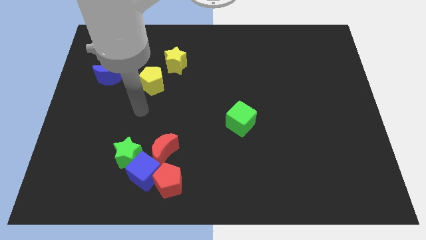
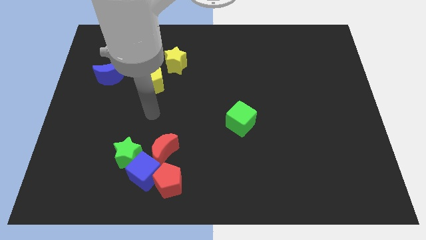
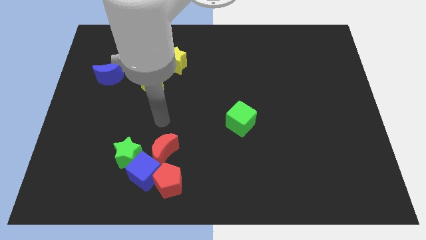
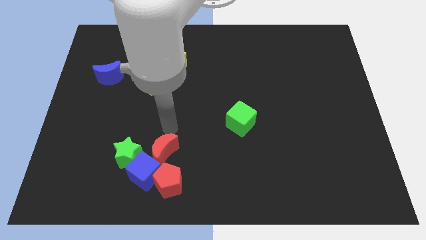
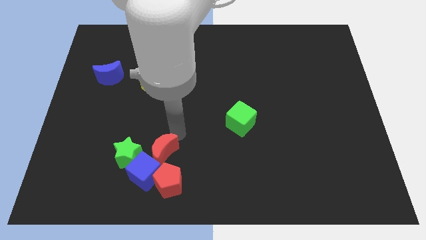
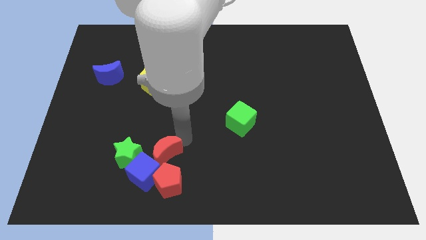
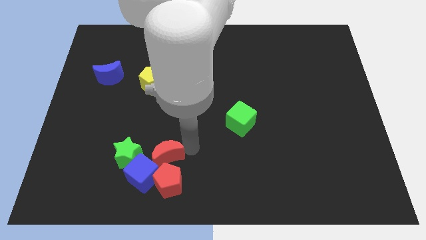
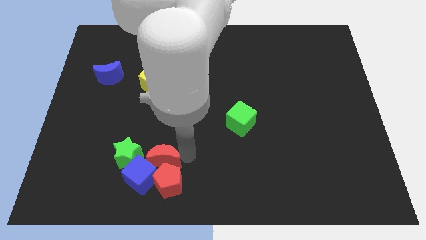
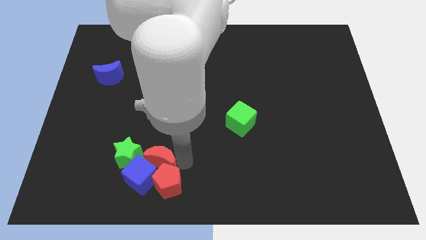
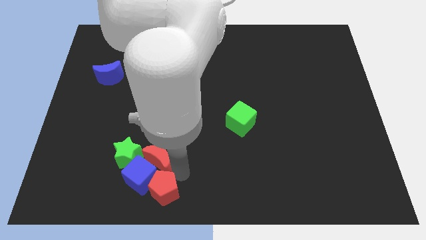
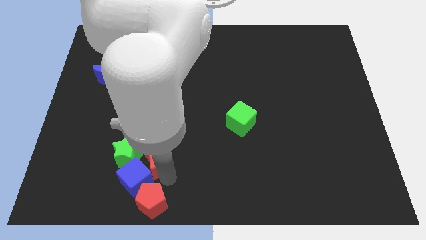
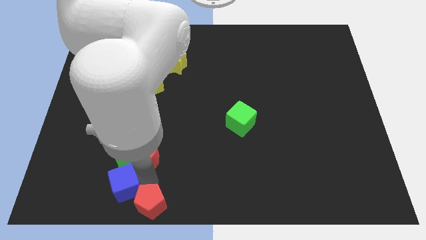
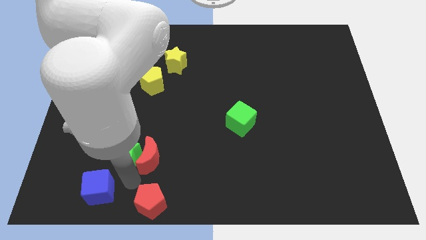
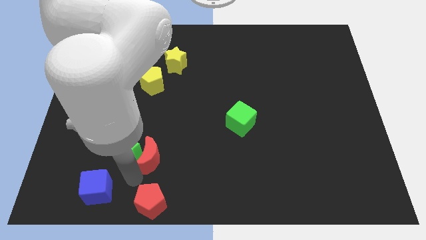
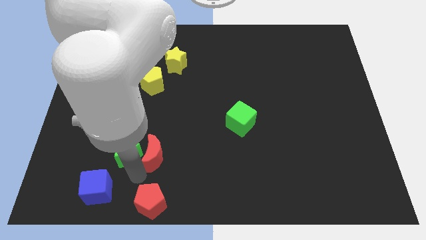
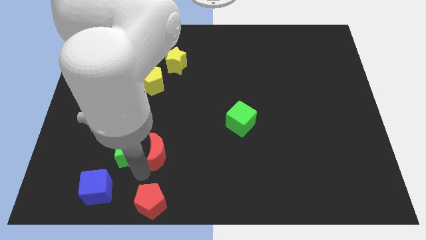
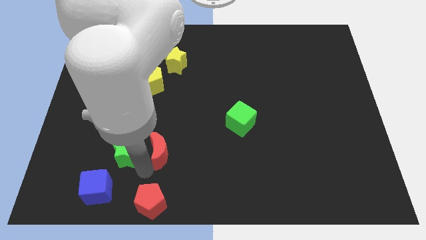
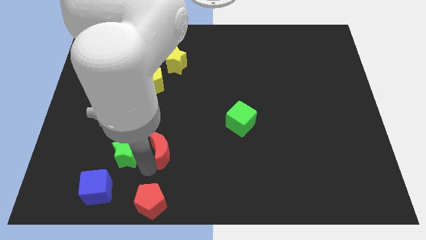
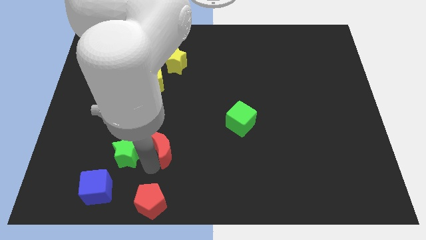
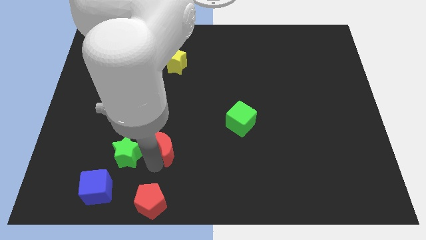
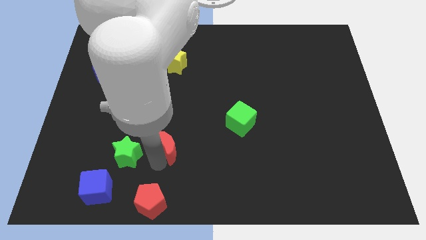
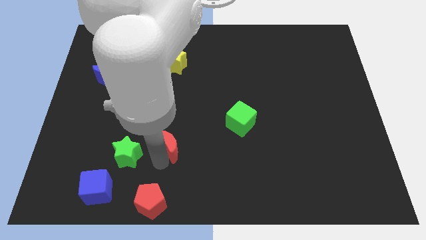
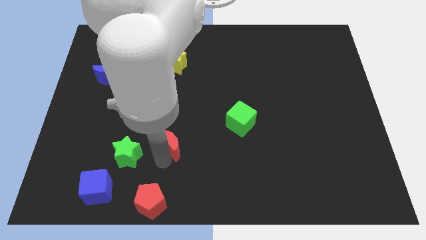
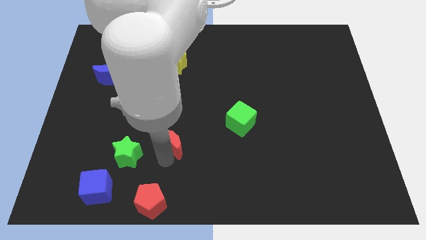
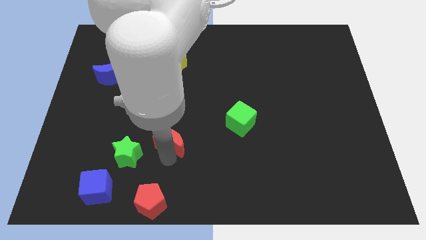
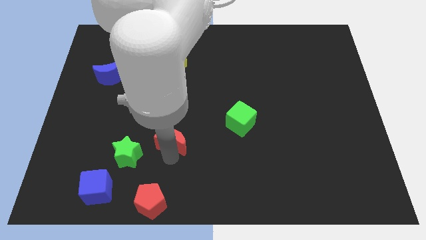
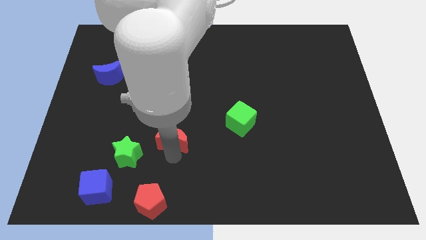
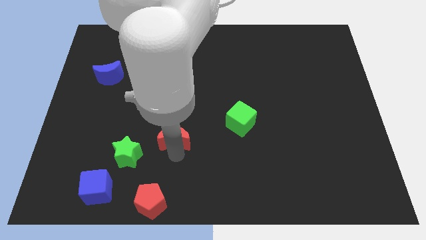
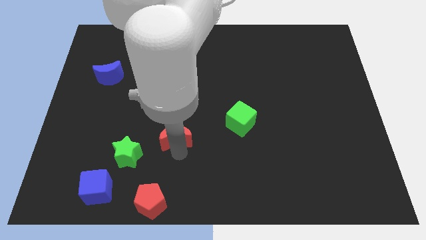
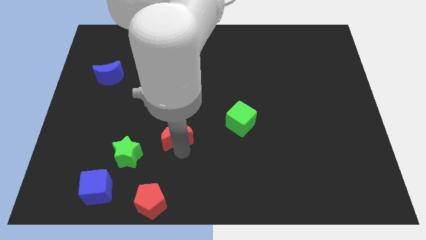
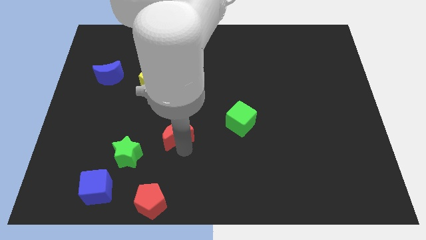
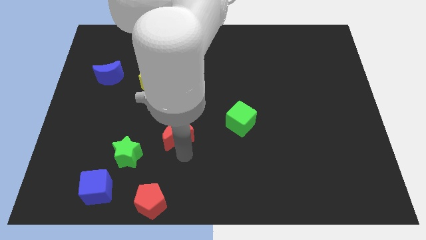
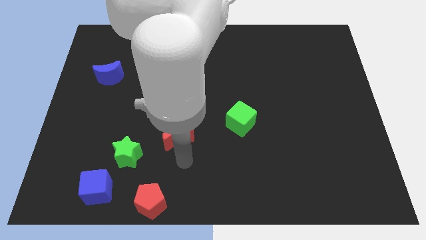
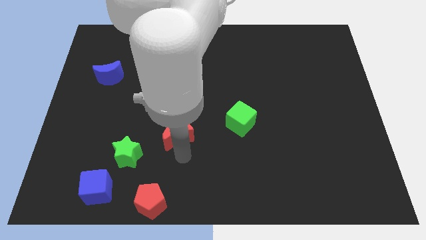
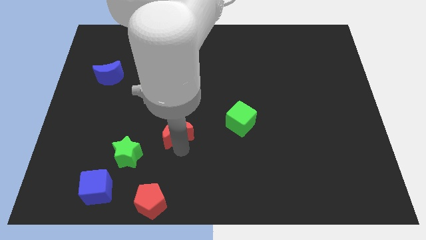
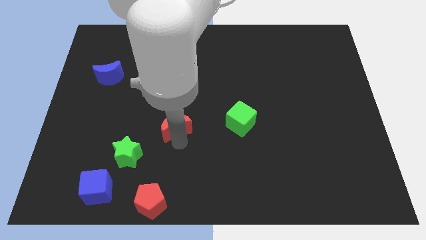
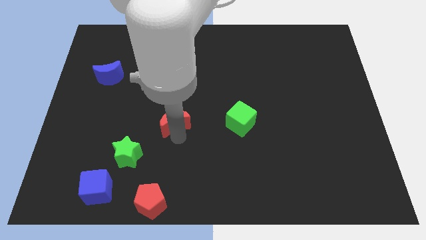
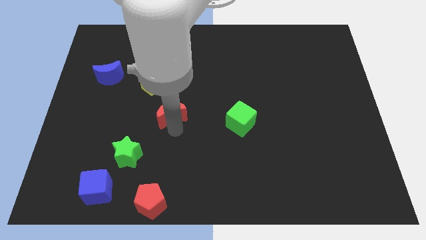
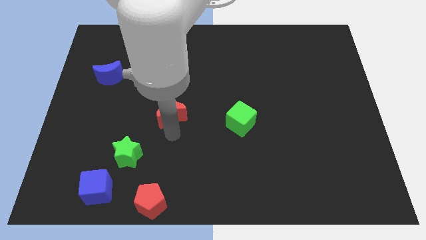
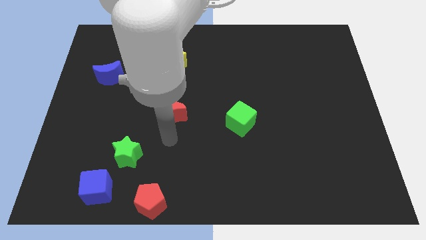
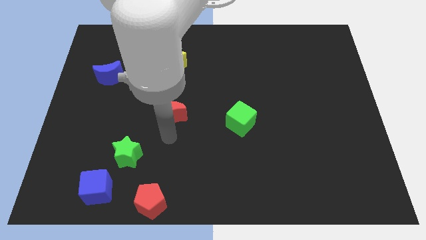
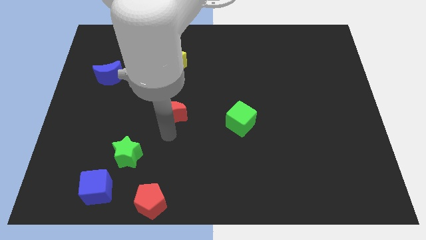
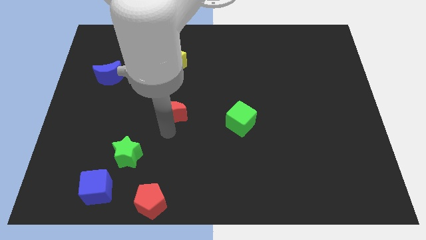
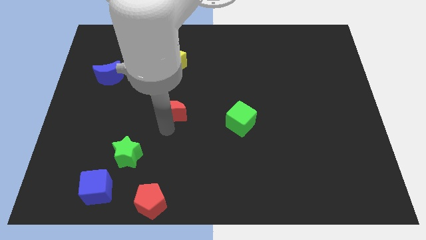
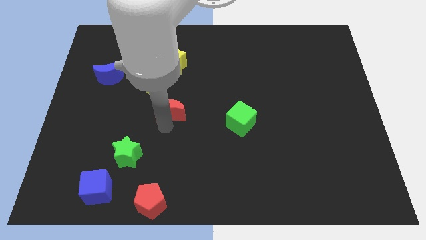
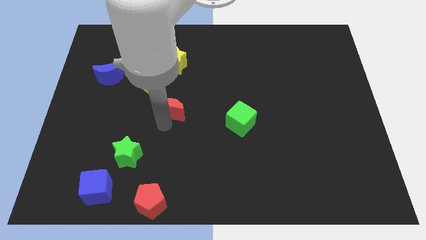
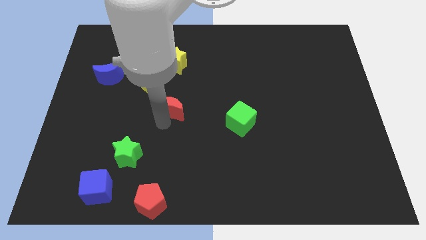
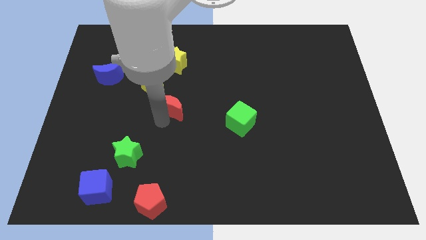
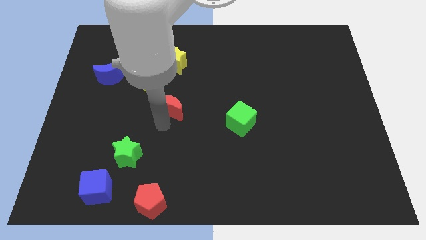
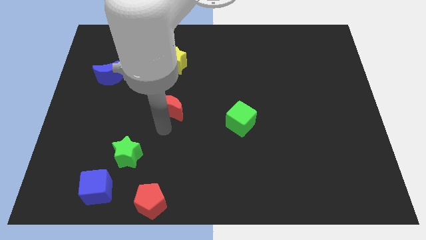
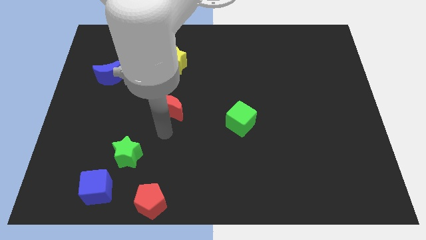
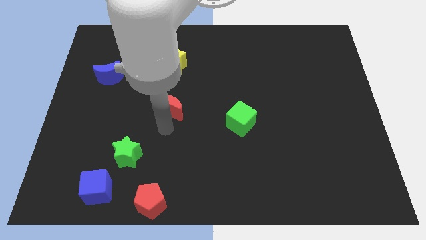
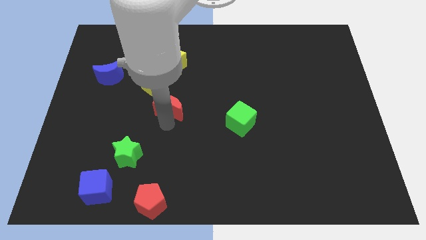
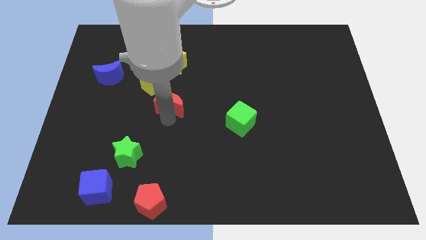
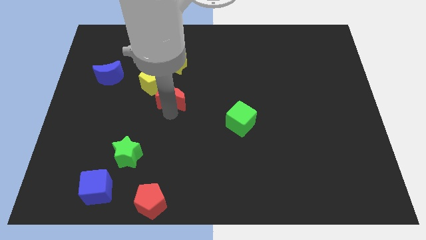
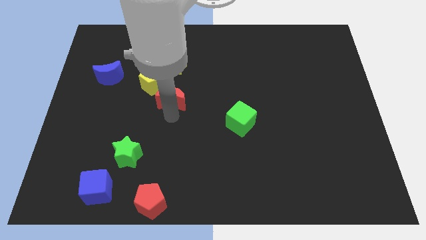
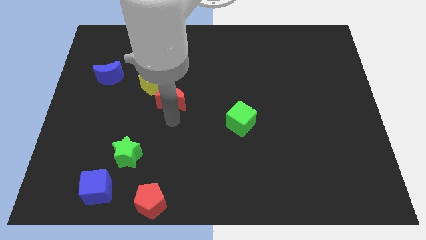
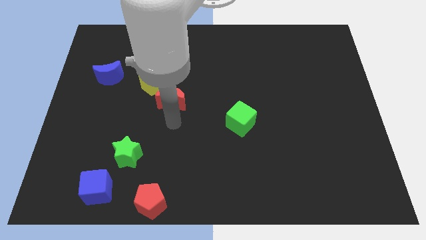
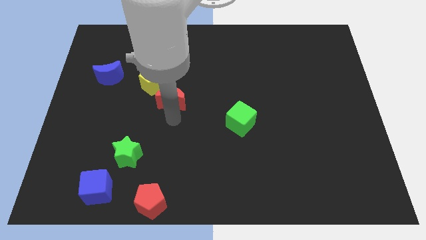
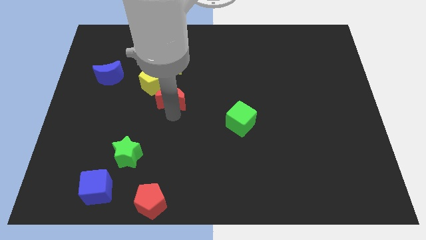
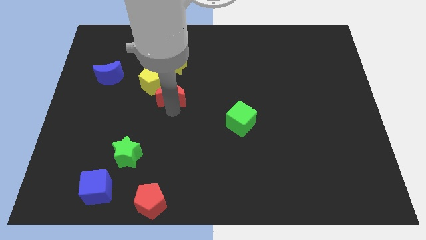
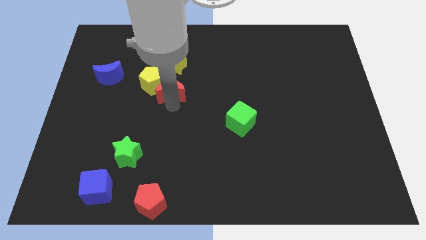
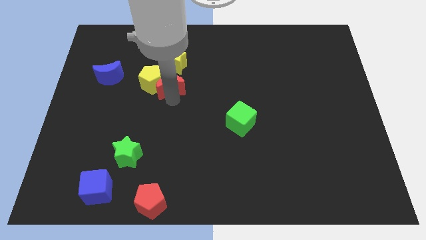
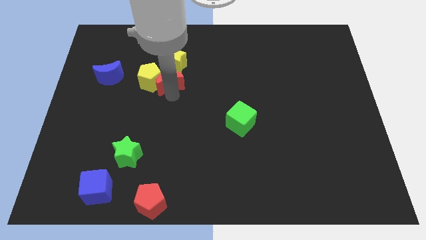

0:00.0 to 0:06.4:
put the red moon to the right side of the blue moon

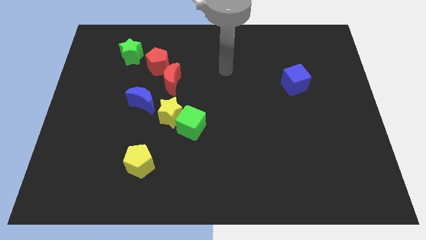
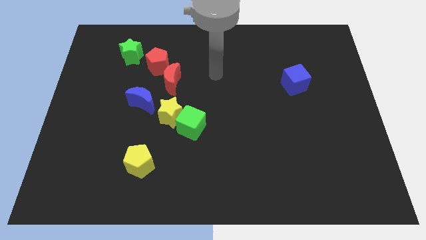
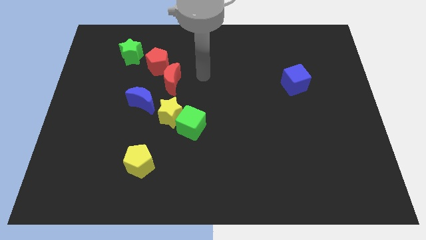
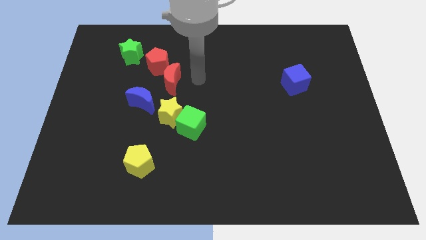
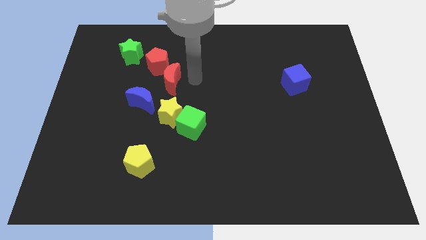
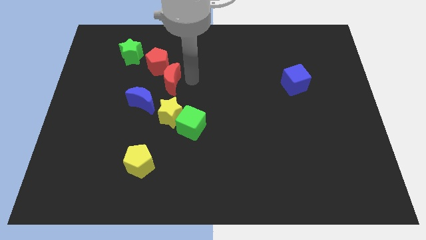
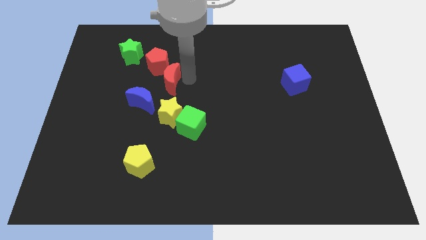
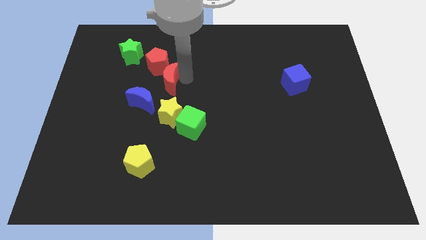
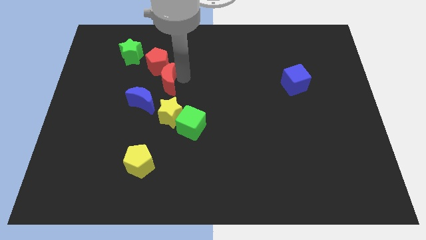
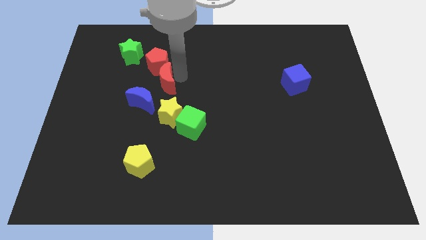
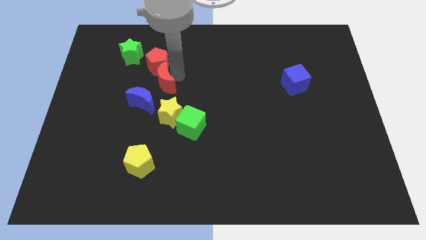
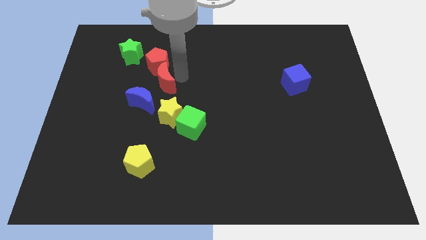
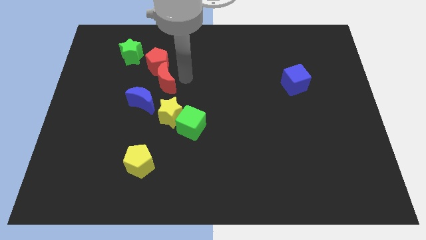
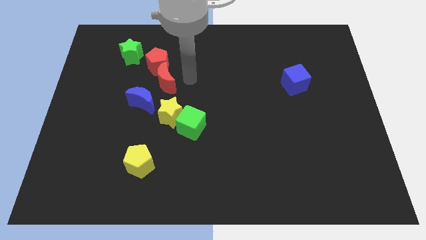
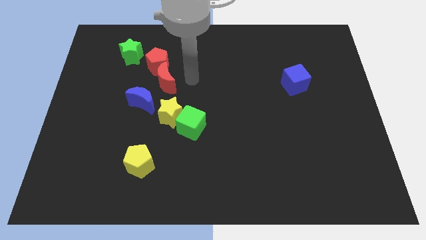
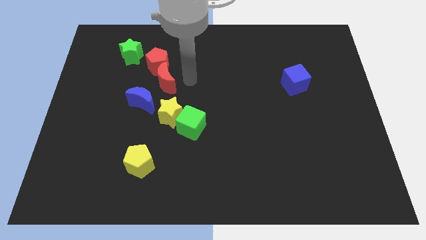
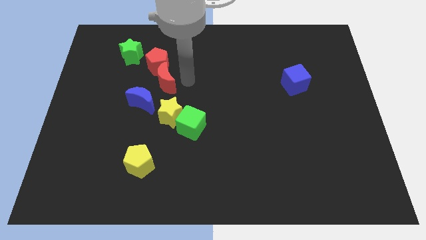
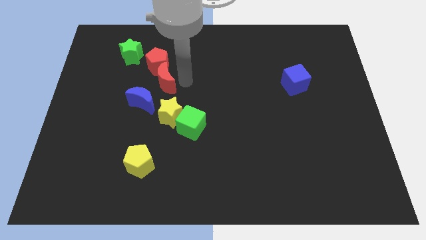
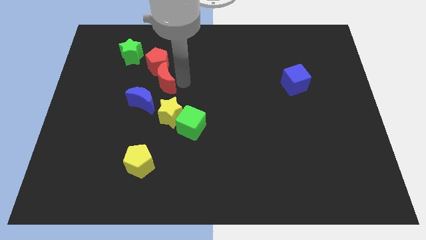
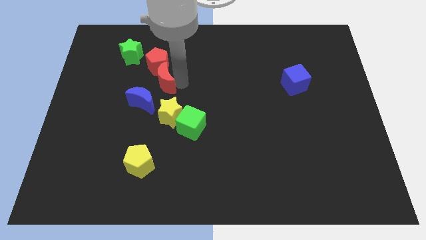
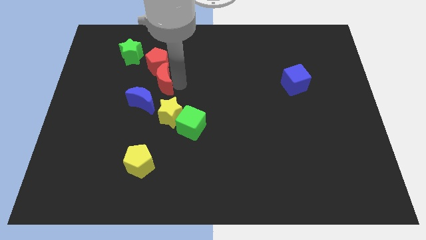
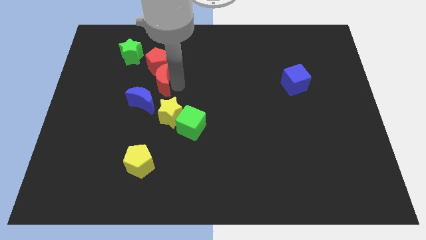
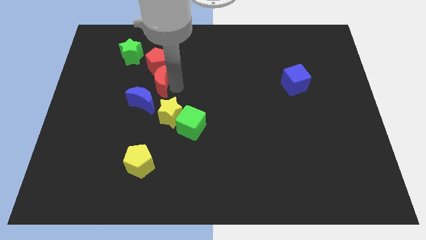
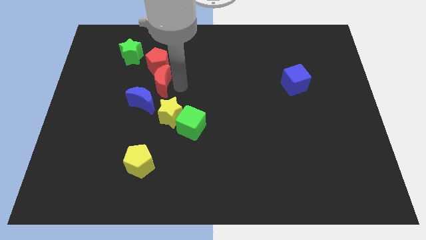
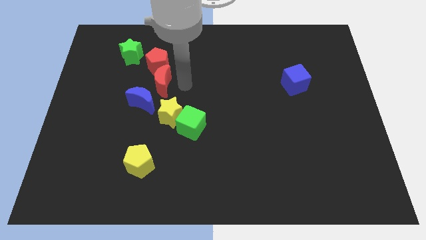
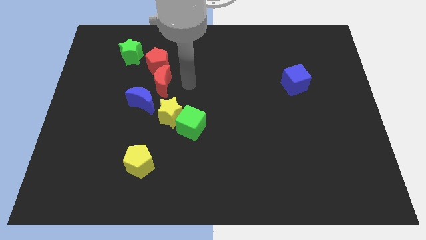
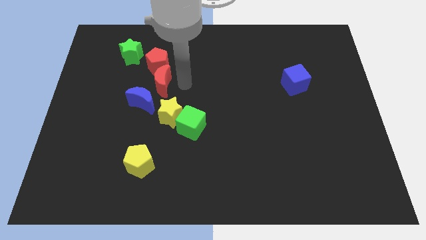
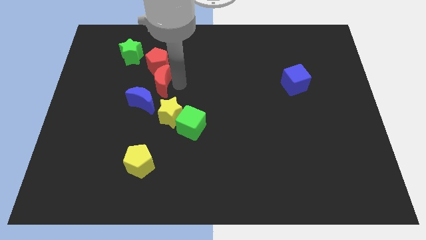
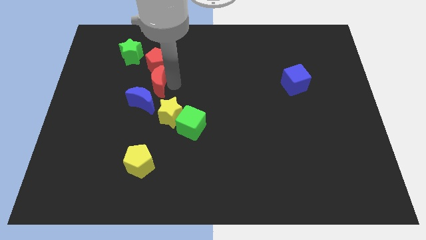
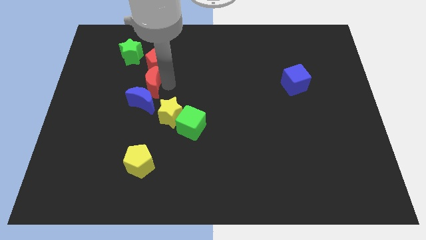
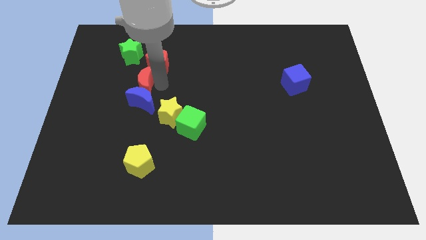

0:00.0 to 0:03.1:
move the red moon to the top left of the blue moon
